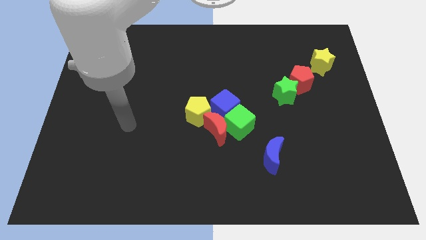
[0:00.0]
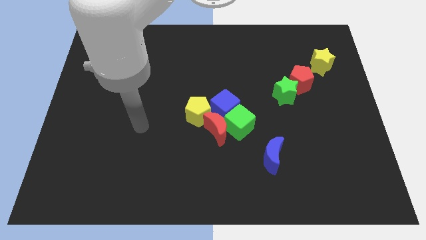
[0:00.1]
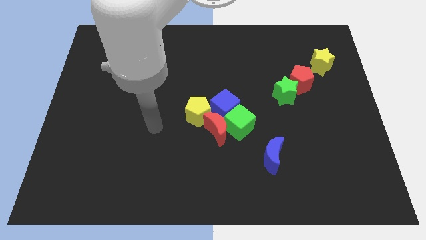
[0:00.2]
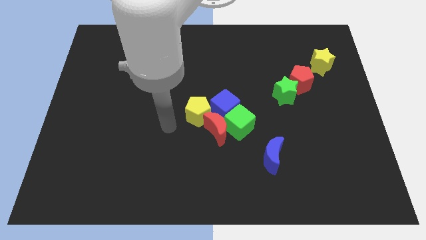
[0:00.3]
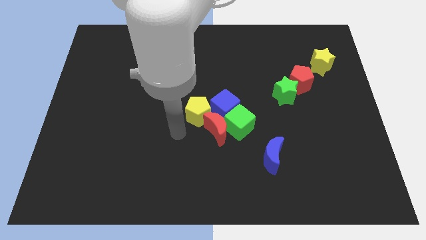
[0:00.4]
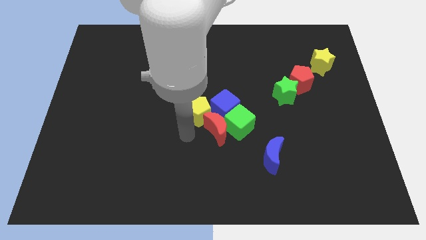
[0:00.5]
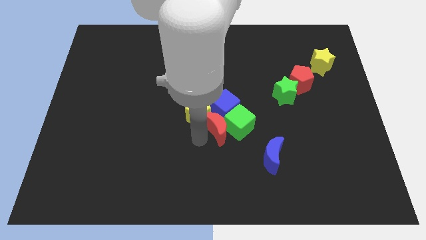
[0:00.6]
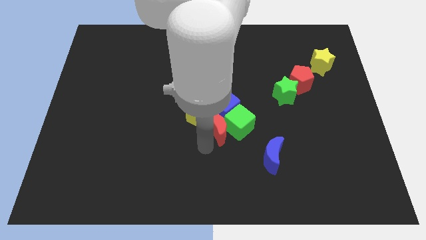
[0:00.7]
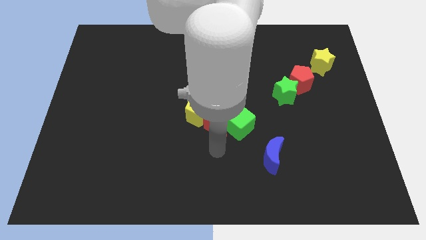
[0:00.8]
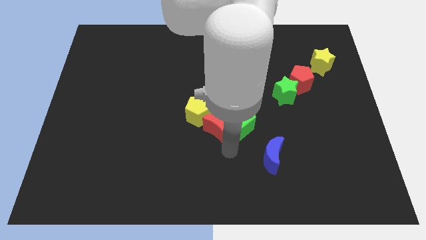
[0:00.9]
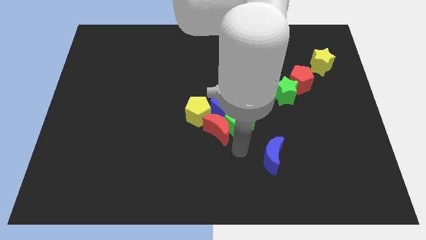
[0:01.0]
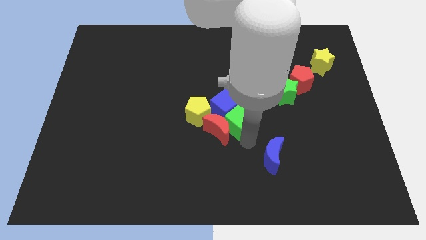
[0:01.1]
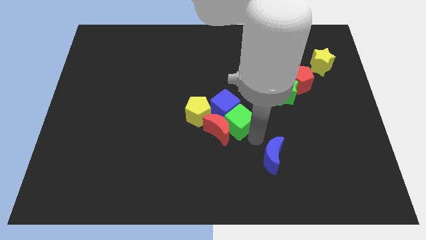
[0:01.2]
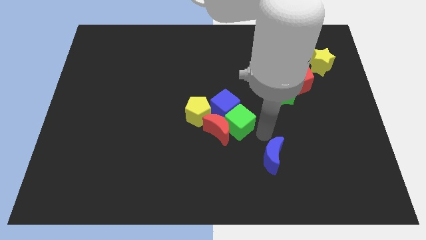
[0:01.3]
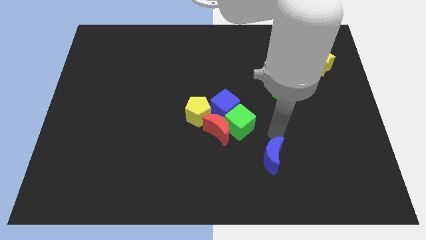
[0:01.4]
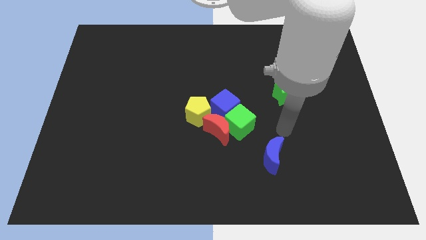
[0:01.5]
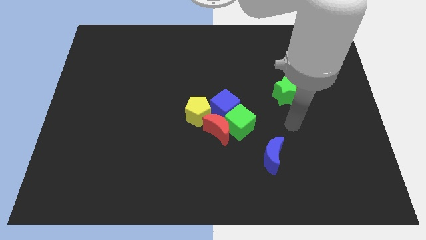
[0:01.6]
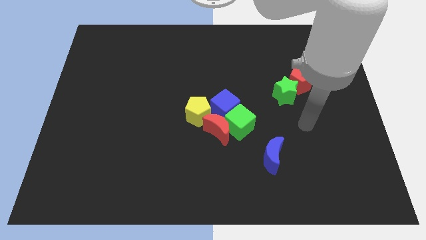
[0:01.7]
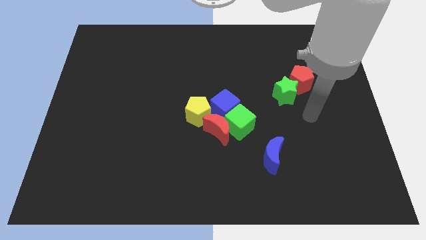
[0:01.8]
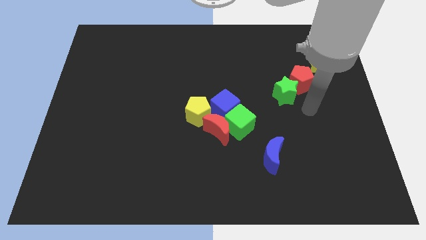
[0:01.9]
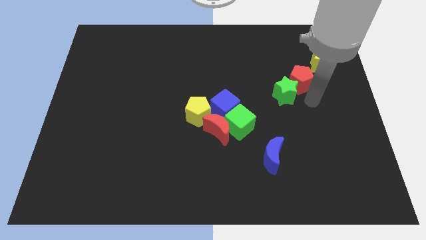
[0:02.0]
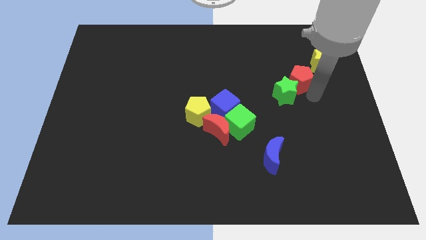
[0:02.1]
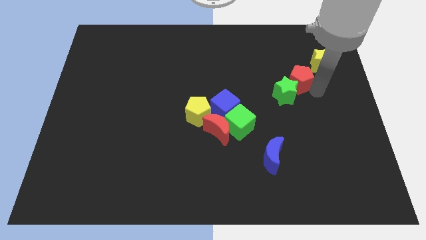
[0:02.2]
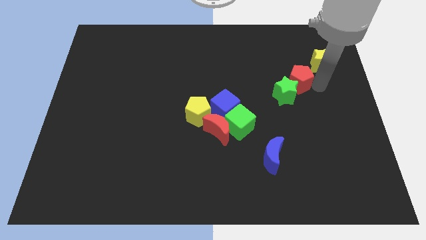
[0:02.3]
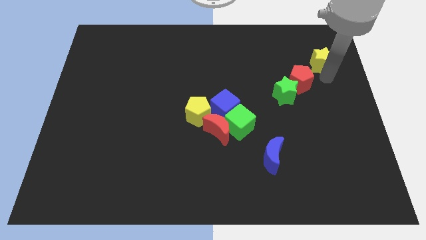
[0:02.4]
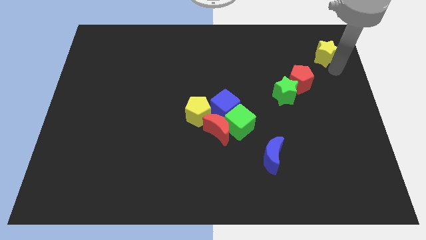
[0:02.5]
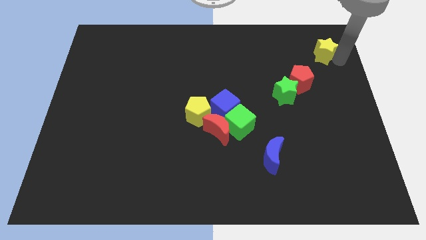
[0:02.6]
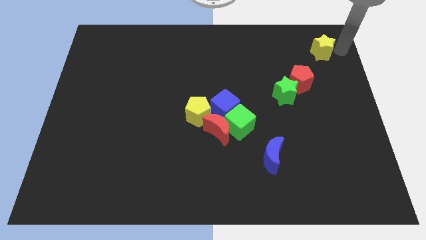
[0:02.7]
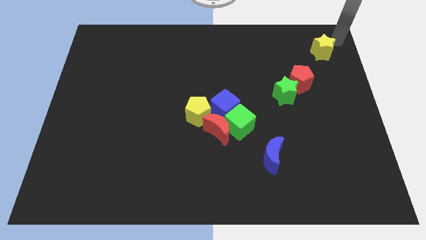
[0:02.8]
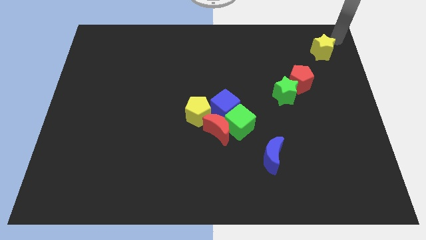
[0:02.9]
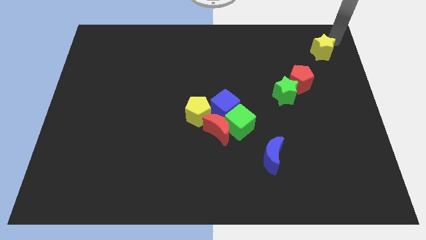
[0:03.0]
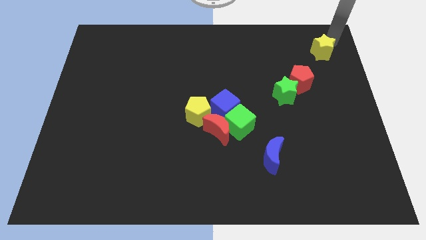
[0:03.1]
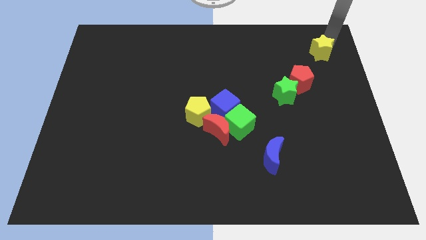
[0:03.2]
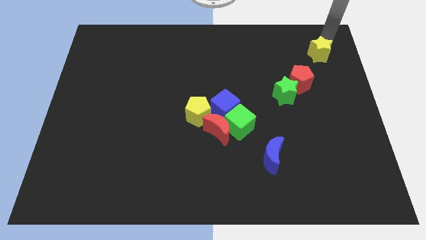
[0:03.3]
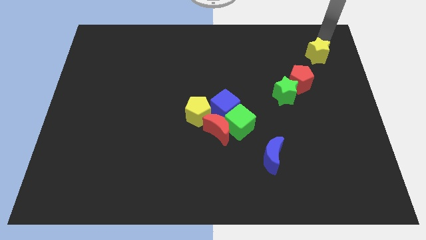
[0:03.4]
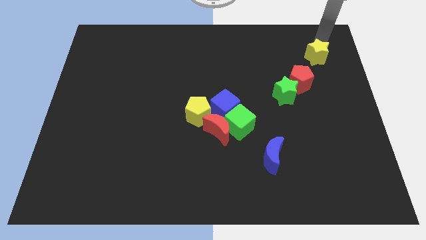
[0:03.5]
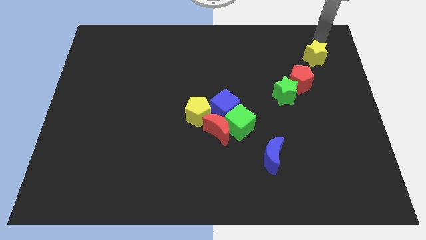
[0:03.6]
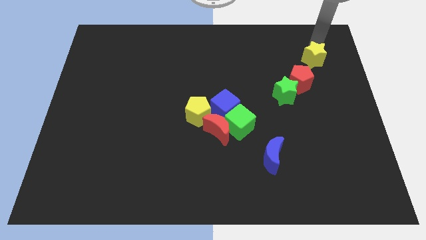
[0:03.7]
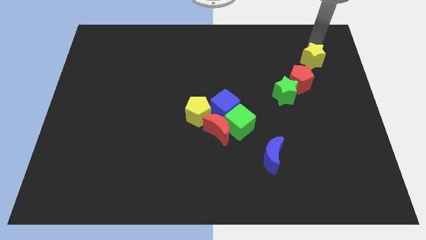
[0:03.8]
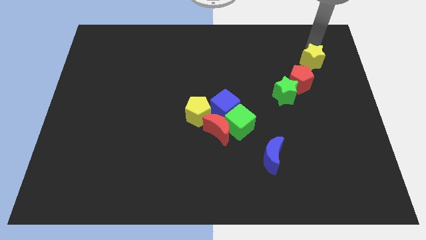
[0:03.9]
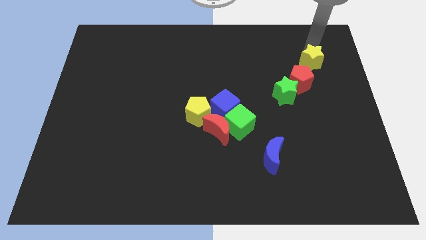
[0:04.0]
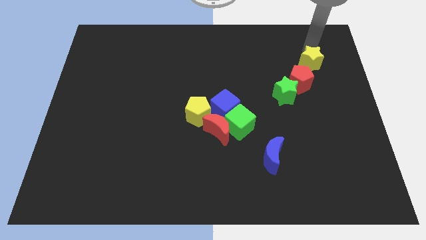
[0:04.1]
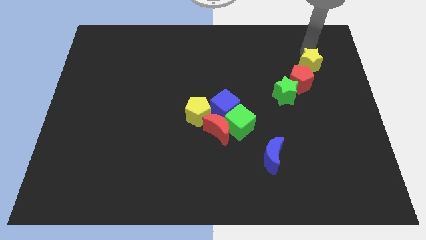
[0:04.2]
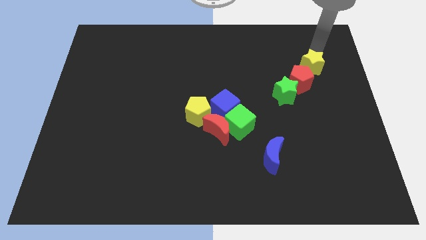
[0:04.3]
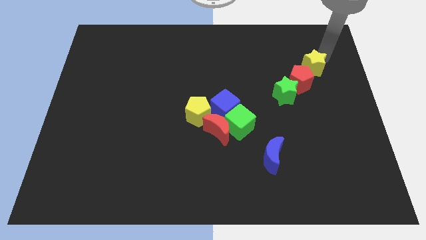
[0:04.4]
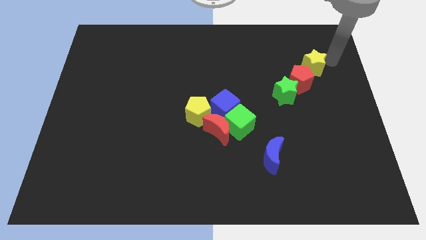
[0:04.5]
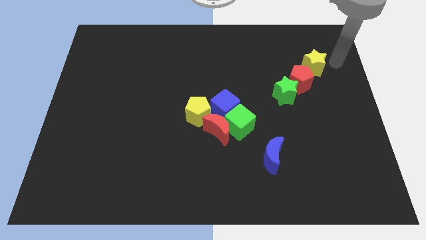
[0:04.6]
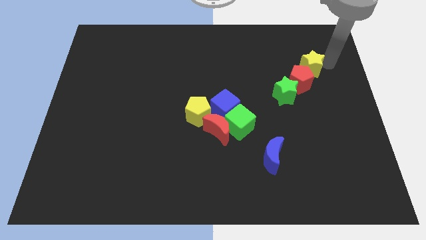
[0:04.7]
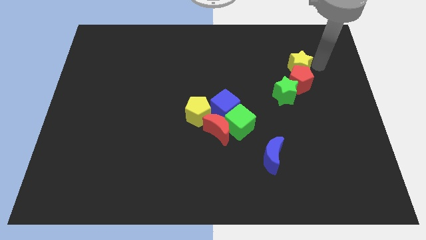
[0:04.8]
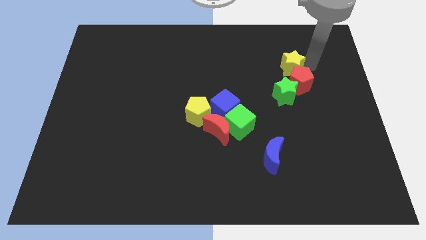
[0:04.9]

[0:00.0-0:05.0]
slide the yellow star a little to the left

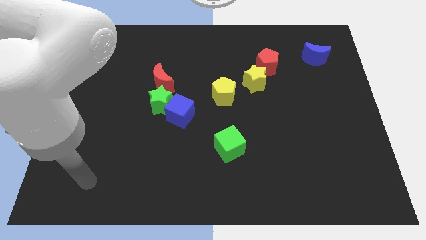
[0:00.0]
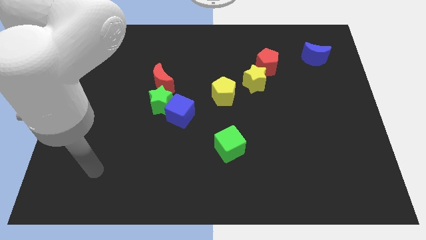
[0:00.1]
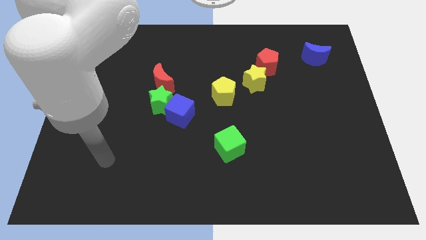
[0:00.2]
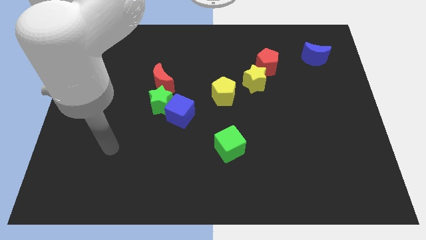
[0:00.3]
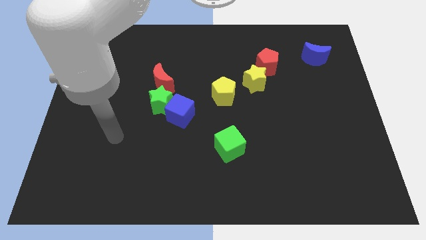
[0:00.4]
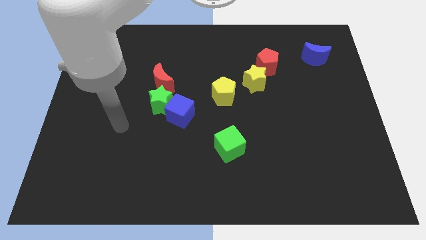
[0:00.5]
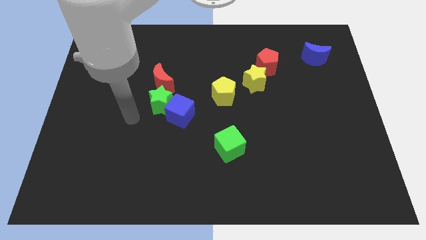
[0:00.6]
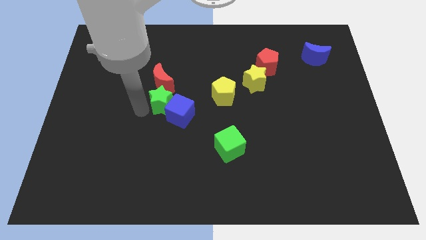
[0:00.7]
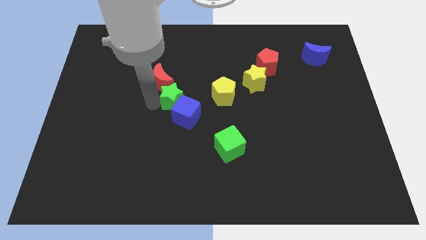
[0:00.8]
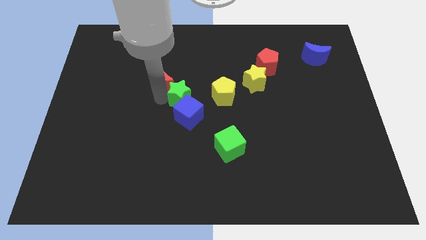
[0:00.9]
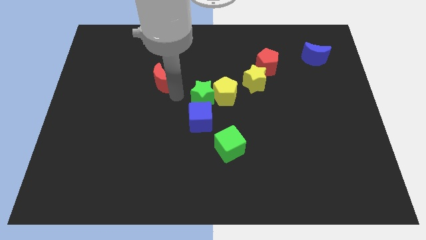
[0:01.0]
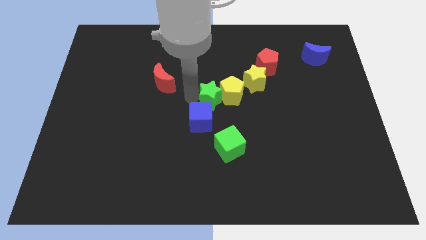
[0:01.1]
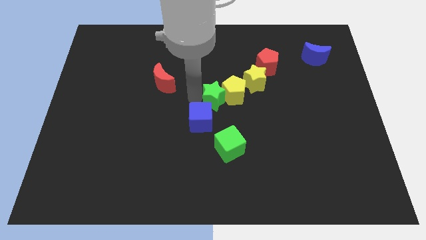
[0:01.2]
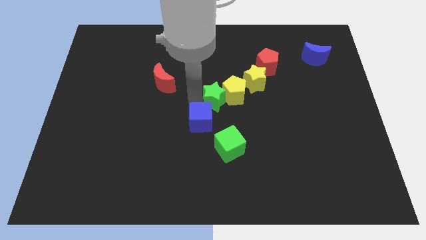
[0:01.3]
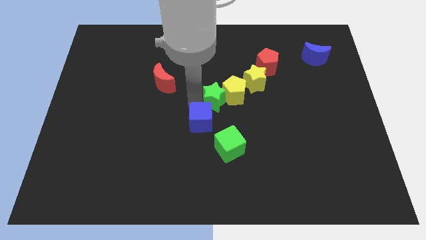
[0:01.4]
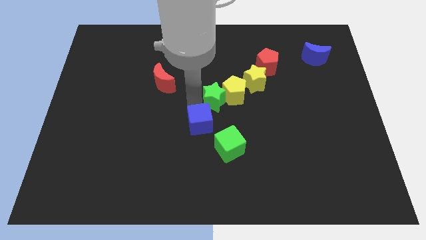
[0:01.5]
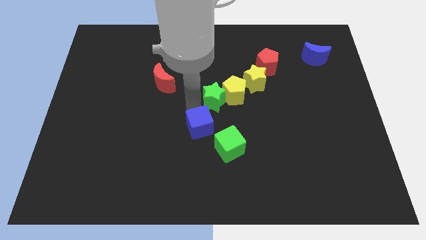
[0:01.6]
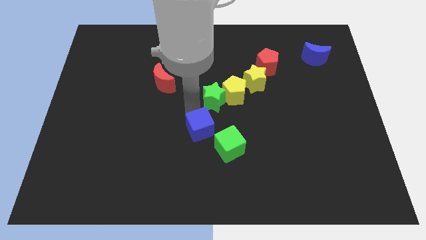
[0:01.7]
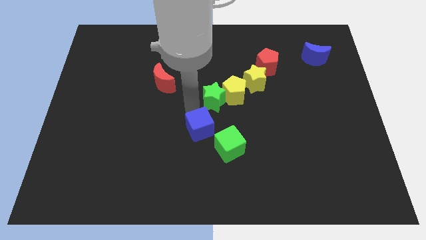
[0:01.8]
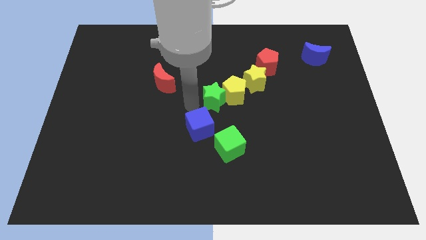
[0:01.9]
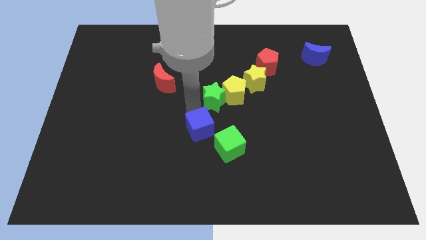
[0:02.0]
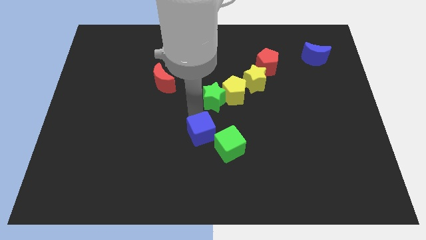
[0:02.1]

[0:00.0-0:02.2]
slightly move the blue cube down and right

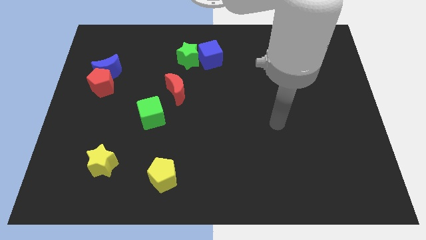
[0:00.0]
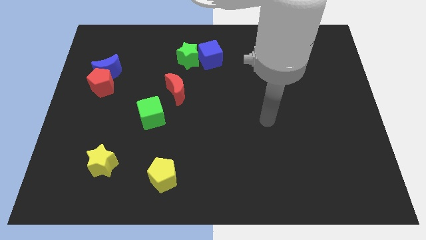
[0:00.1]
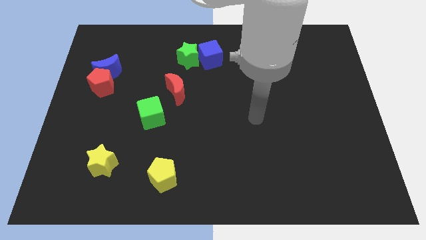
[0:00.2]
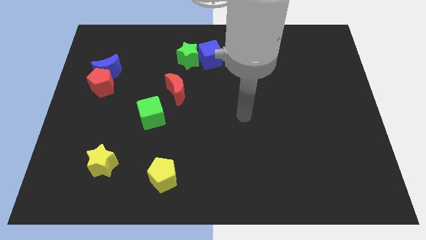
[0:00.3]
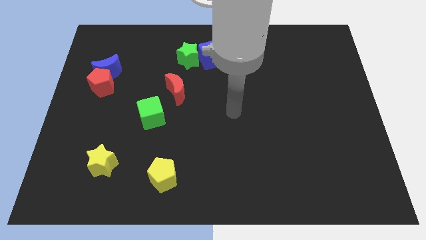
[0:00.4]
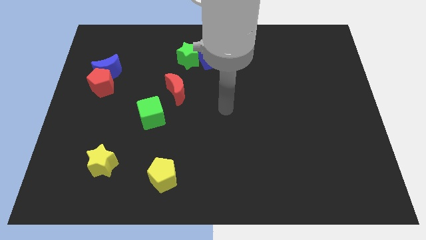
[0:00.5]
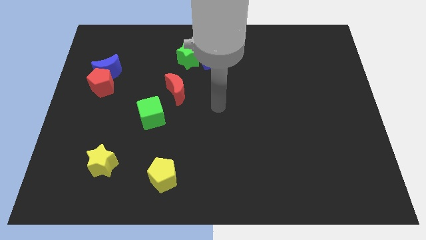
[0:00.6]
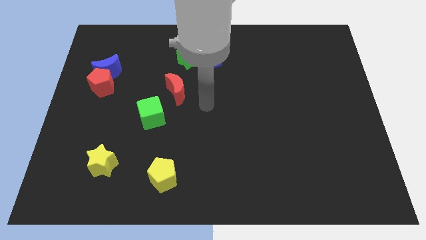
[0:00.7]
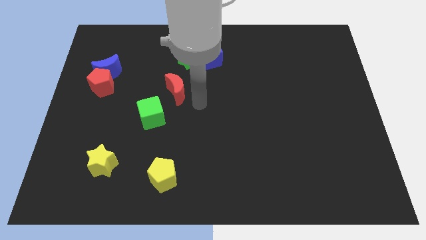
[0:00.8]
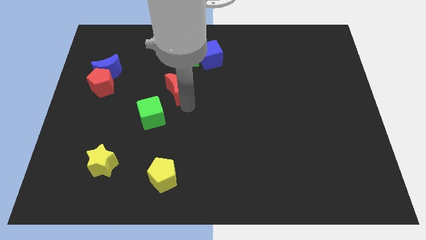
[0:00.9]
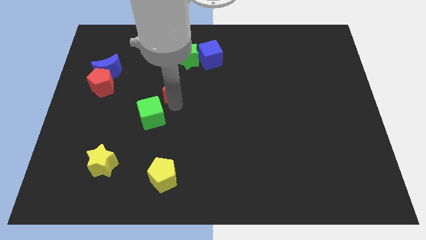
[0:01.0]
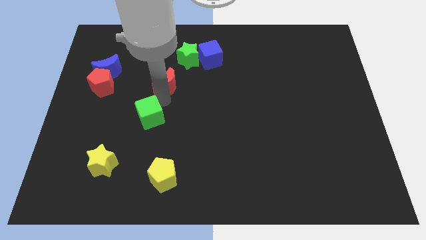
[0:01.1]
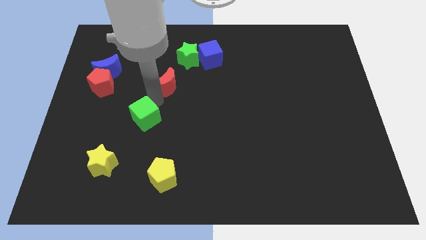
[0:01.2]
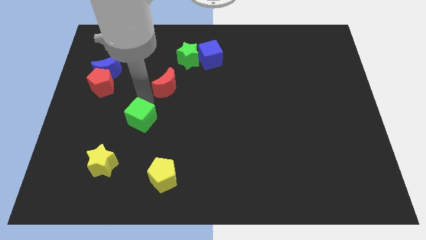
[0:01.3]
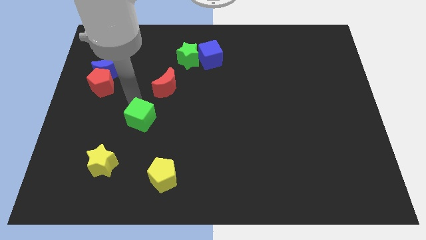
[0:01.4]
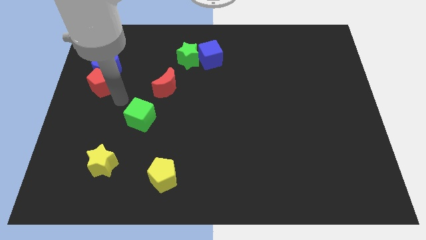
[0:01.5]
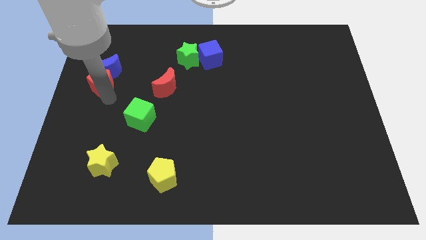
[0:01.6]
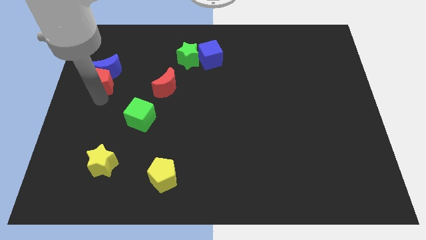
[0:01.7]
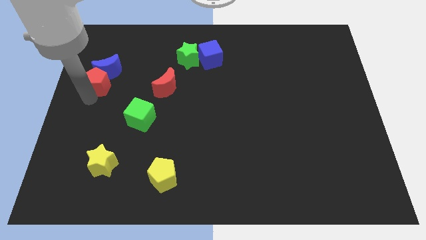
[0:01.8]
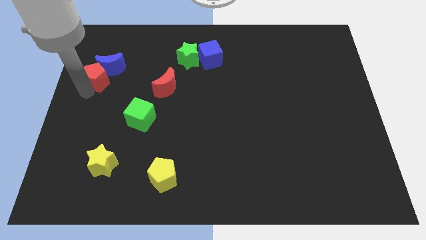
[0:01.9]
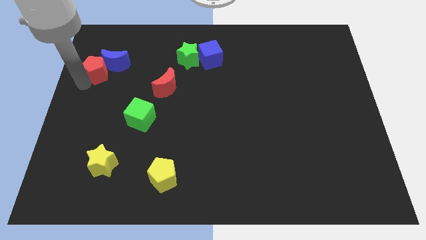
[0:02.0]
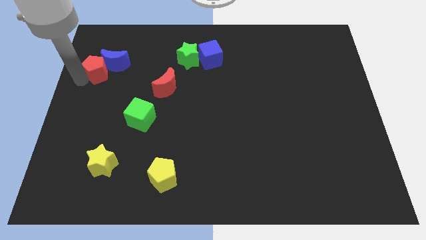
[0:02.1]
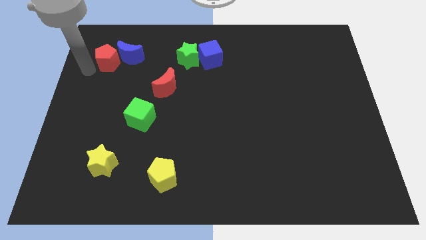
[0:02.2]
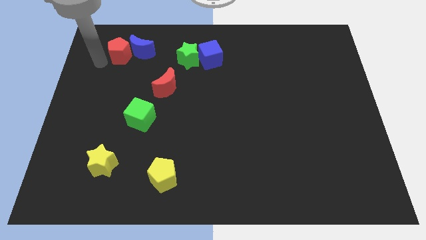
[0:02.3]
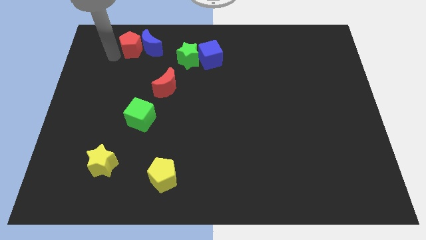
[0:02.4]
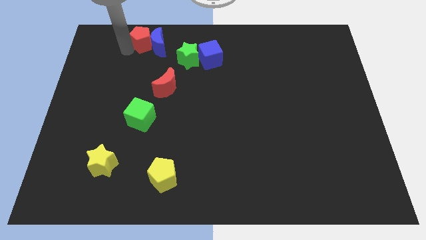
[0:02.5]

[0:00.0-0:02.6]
slightly push the blue moon right
